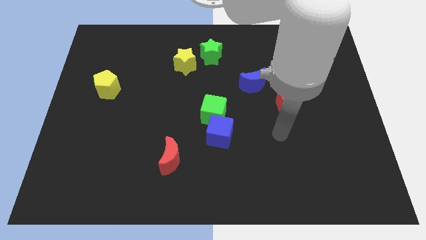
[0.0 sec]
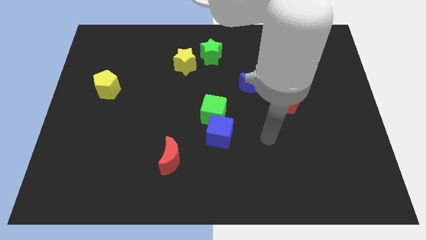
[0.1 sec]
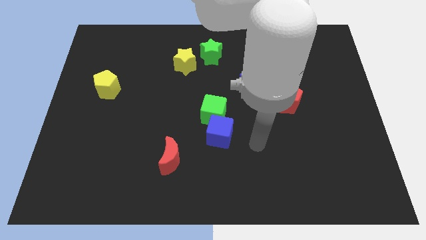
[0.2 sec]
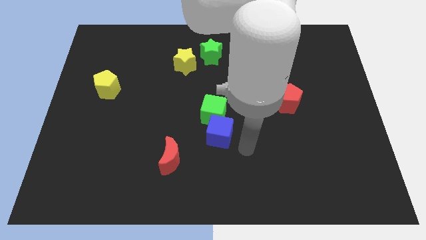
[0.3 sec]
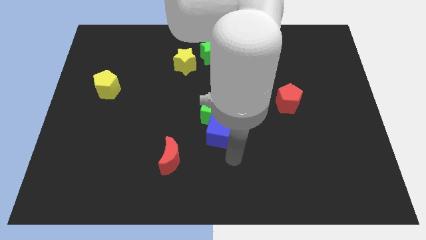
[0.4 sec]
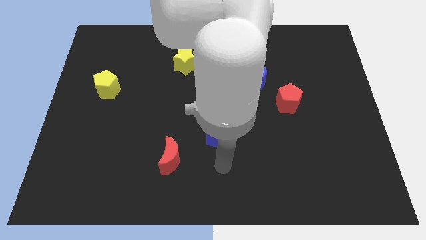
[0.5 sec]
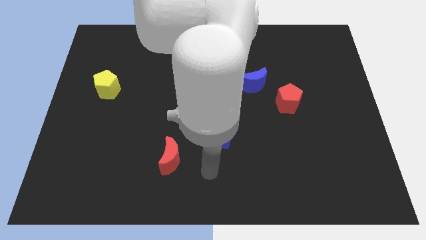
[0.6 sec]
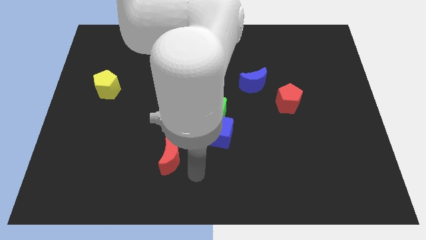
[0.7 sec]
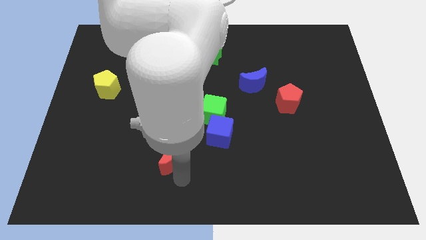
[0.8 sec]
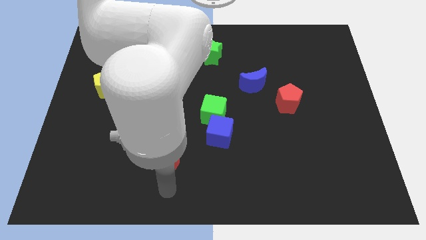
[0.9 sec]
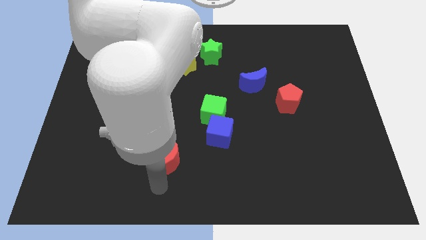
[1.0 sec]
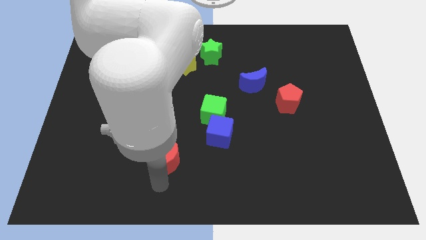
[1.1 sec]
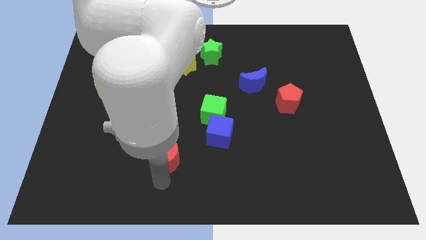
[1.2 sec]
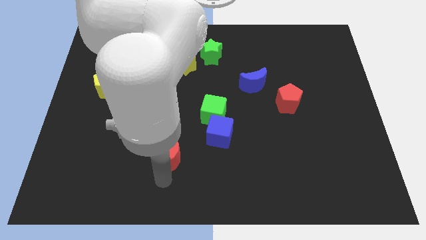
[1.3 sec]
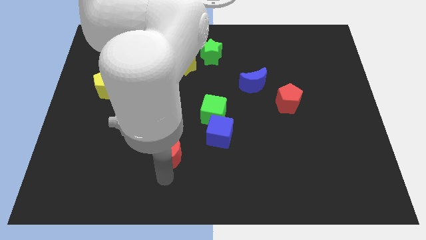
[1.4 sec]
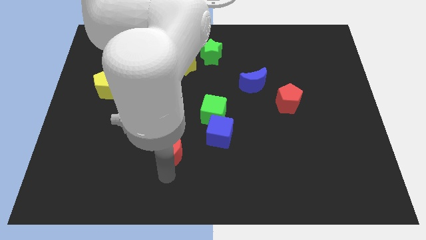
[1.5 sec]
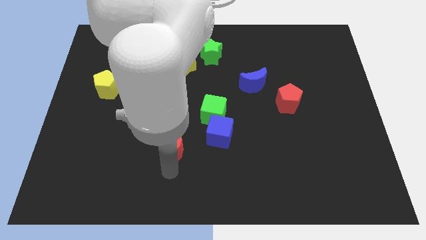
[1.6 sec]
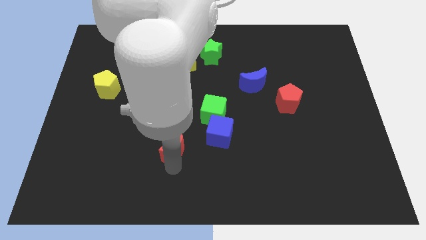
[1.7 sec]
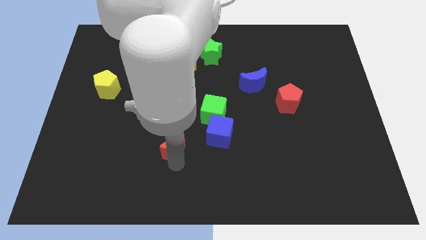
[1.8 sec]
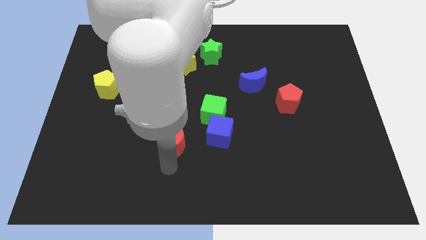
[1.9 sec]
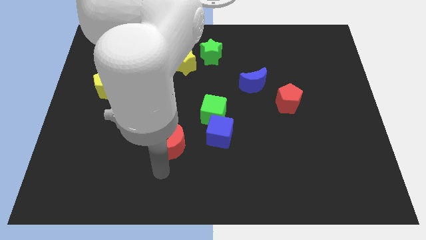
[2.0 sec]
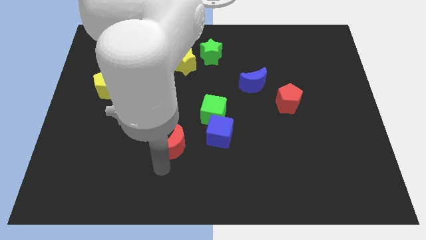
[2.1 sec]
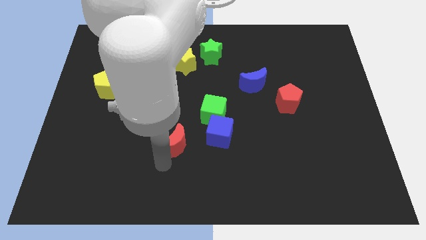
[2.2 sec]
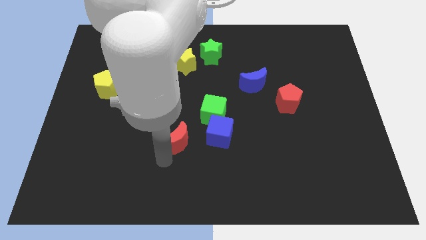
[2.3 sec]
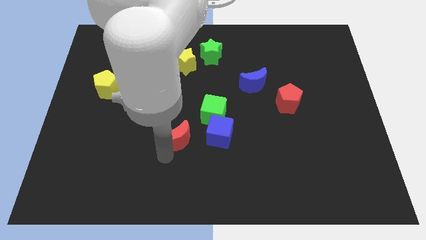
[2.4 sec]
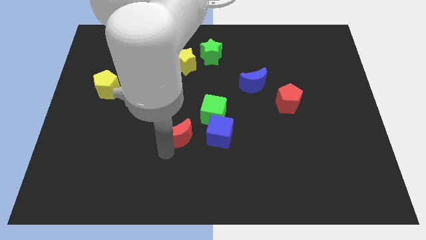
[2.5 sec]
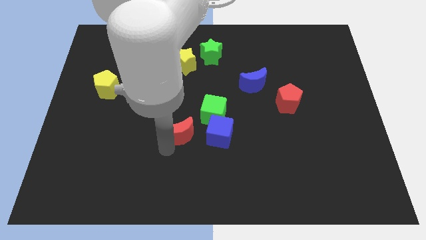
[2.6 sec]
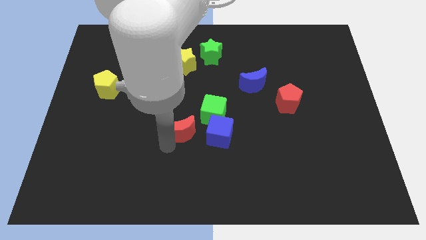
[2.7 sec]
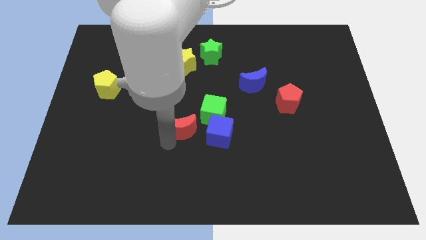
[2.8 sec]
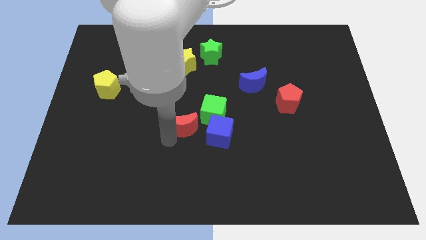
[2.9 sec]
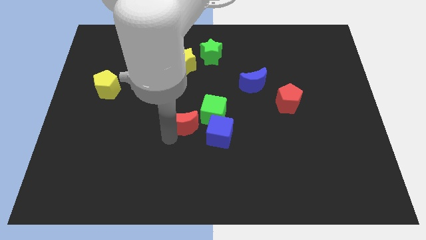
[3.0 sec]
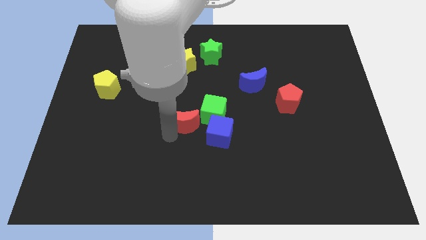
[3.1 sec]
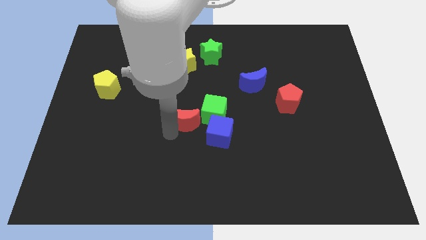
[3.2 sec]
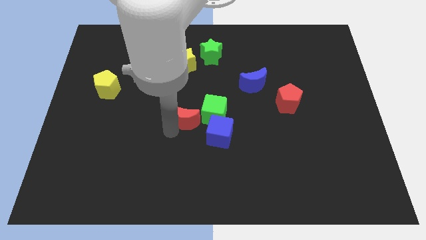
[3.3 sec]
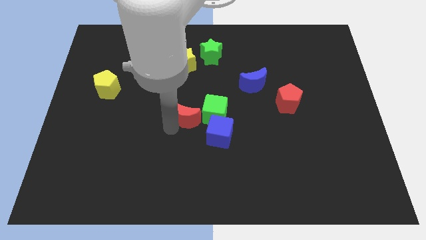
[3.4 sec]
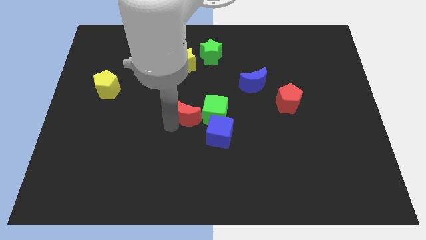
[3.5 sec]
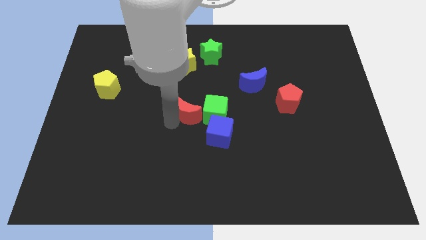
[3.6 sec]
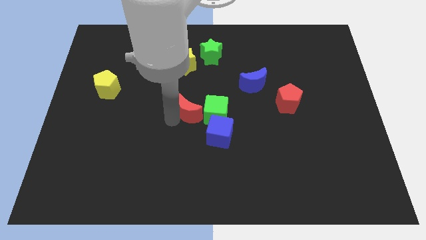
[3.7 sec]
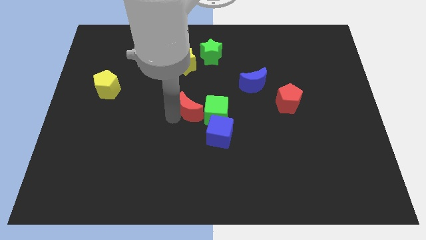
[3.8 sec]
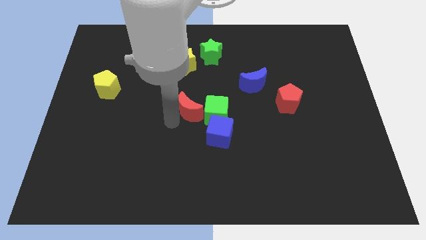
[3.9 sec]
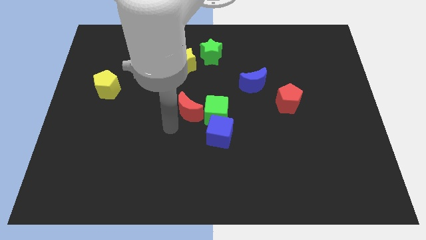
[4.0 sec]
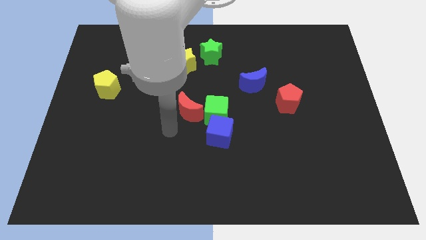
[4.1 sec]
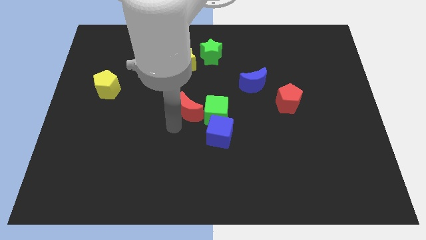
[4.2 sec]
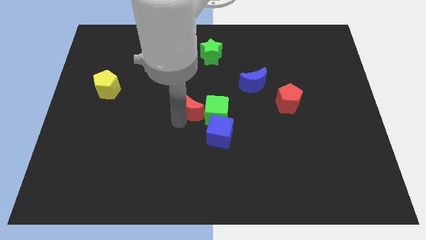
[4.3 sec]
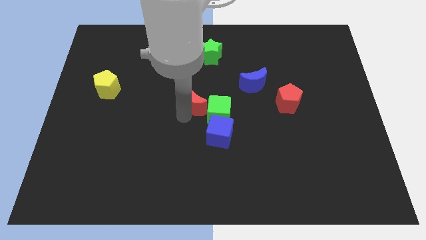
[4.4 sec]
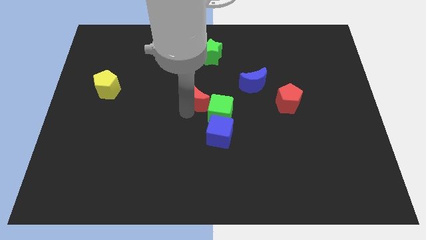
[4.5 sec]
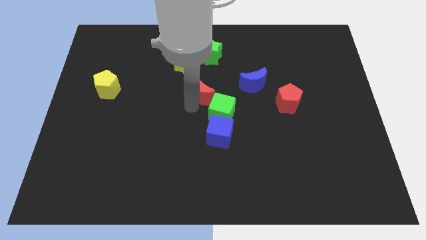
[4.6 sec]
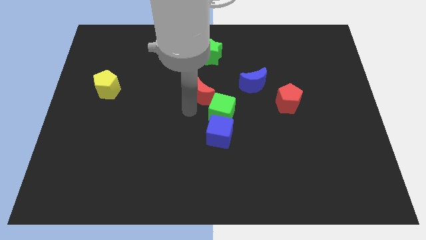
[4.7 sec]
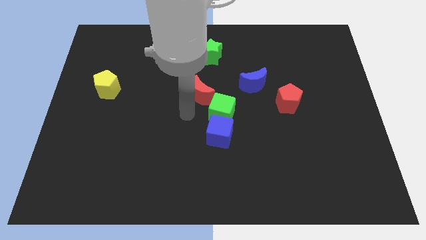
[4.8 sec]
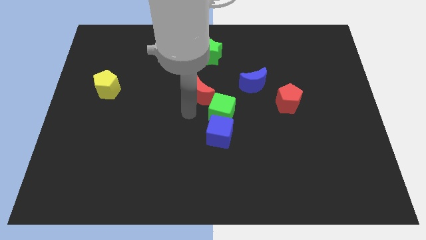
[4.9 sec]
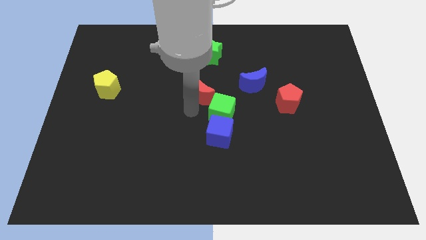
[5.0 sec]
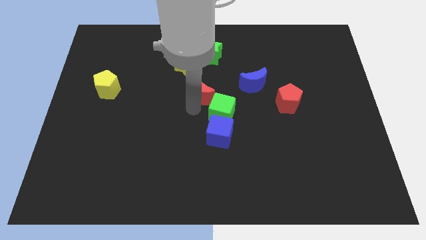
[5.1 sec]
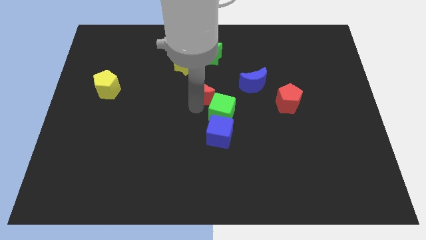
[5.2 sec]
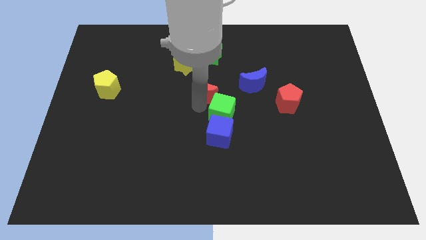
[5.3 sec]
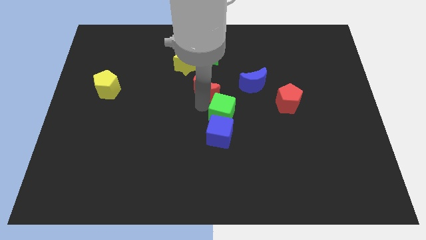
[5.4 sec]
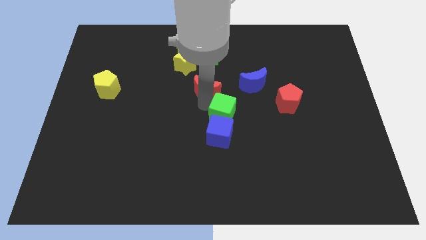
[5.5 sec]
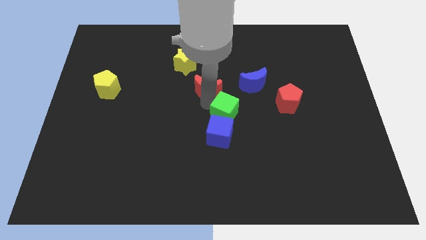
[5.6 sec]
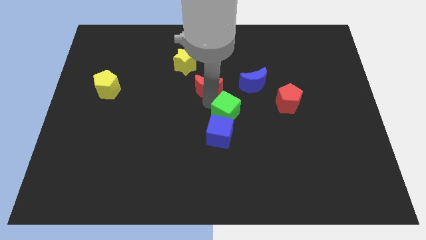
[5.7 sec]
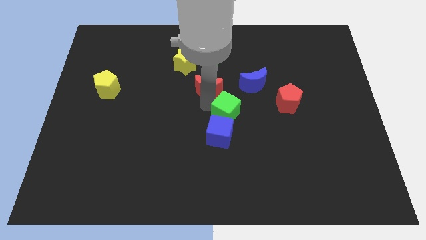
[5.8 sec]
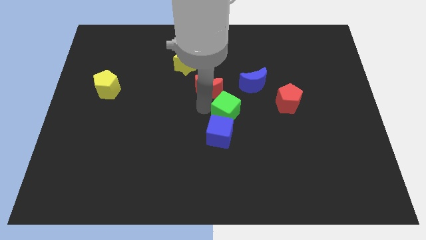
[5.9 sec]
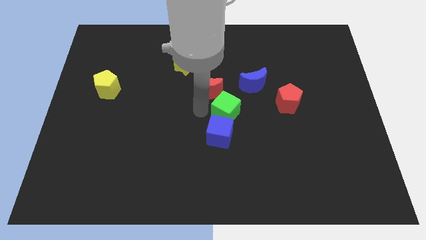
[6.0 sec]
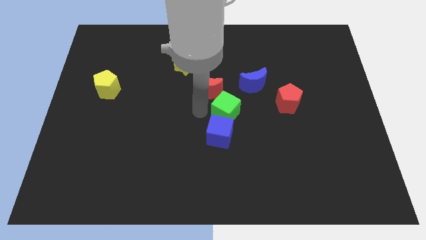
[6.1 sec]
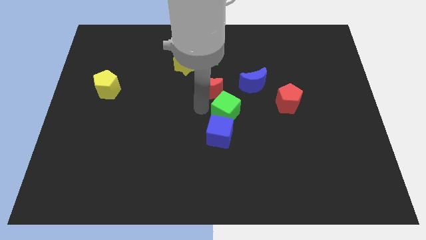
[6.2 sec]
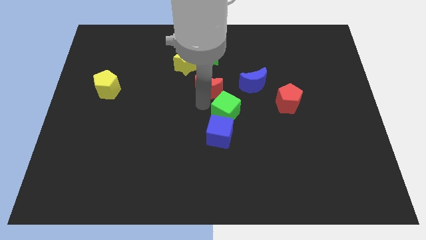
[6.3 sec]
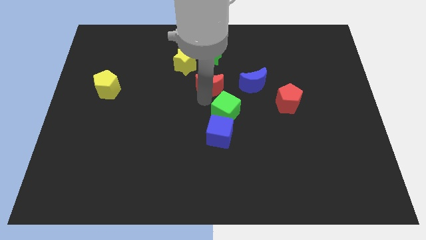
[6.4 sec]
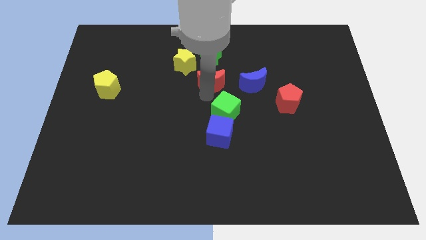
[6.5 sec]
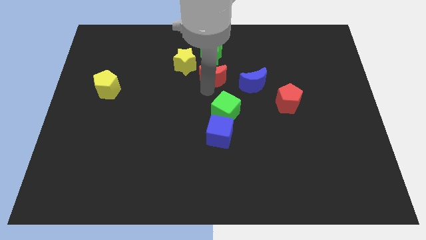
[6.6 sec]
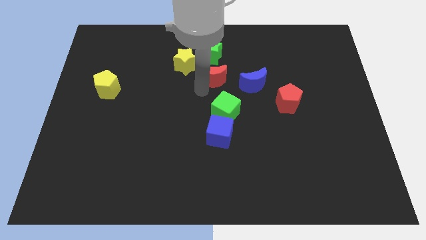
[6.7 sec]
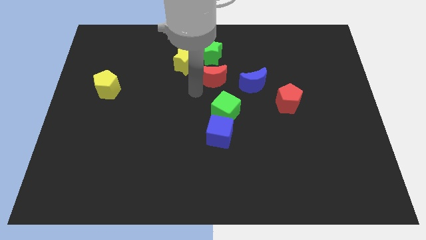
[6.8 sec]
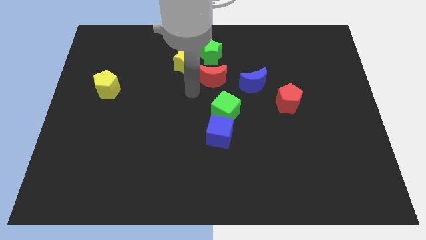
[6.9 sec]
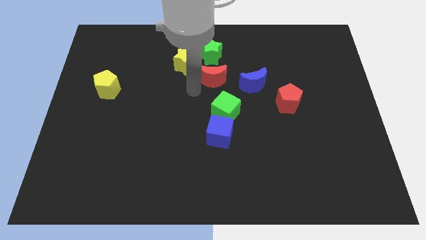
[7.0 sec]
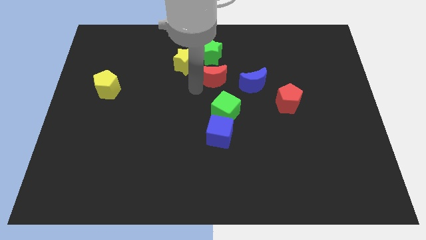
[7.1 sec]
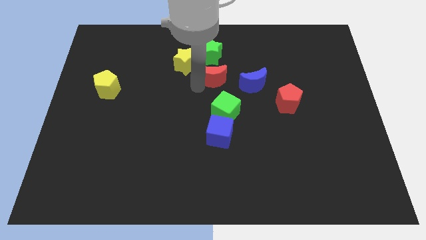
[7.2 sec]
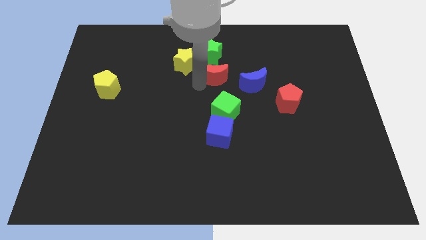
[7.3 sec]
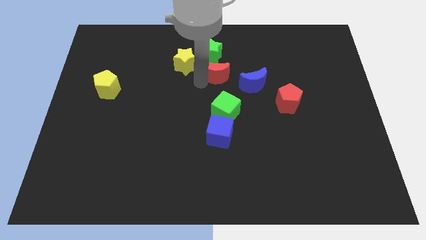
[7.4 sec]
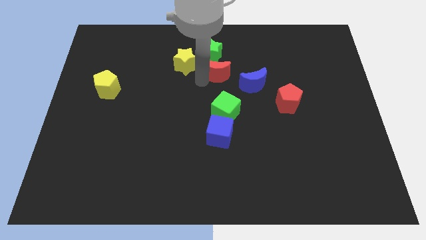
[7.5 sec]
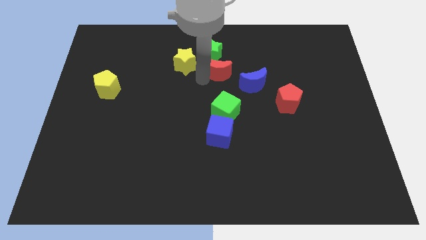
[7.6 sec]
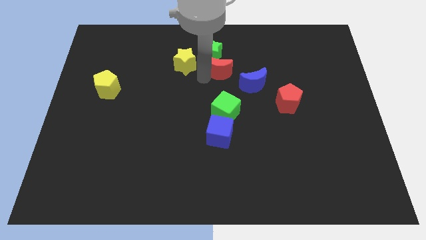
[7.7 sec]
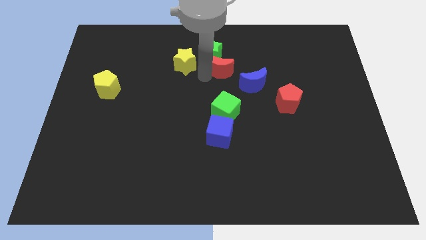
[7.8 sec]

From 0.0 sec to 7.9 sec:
slide the red moon up and then to the right

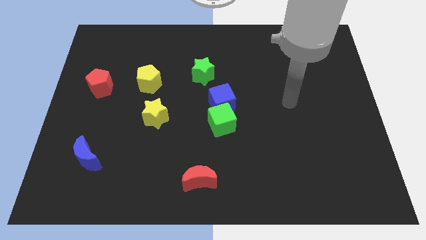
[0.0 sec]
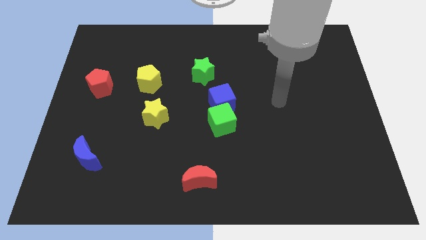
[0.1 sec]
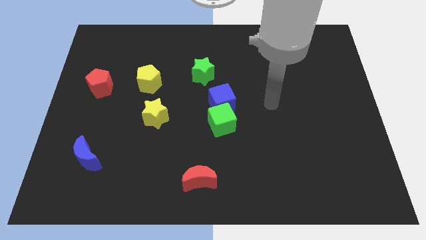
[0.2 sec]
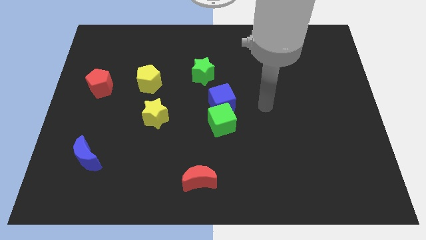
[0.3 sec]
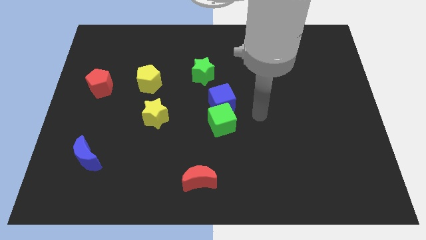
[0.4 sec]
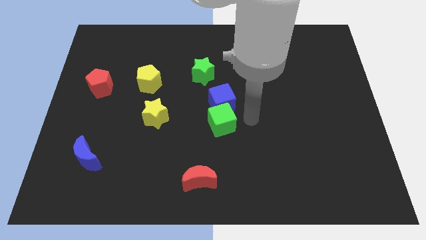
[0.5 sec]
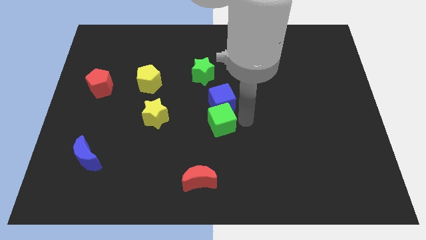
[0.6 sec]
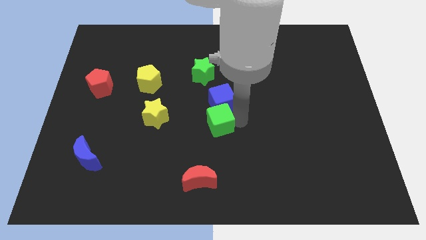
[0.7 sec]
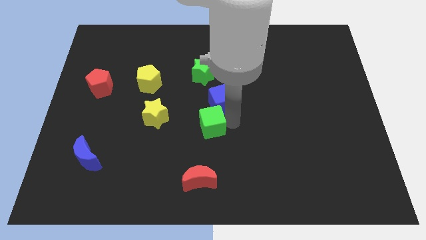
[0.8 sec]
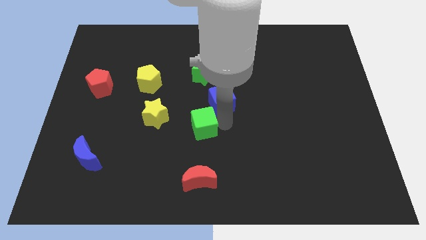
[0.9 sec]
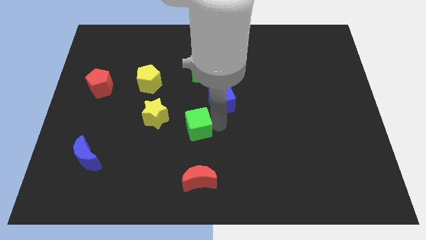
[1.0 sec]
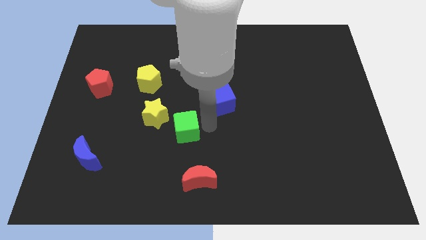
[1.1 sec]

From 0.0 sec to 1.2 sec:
slightly push the green cube to the left
